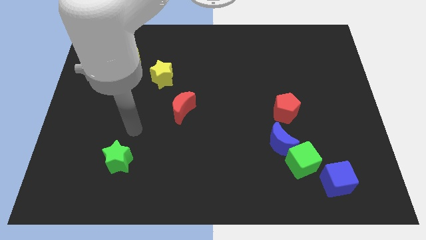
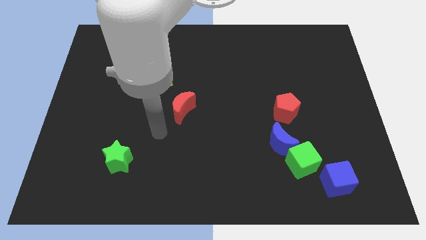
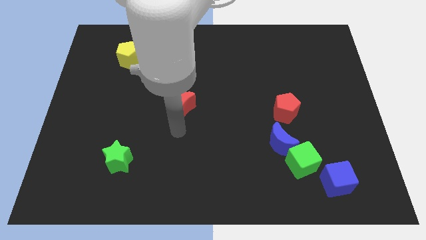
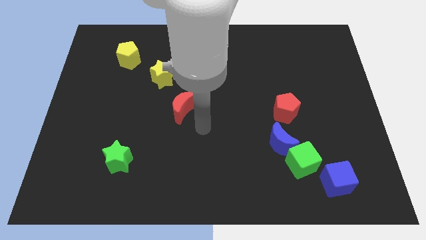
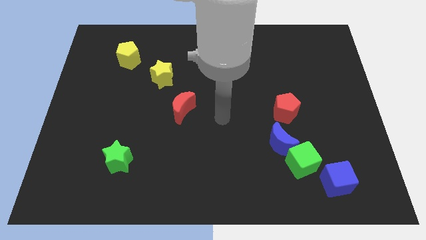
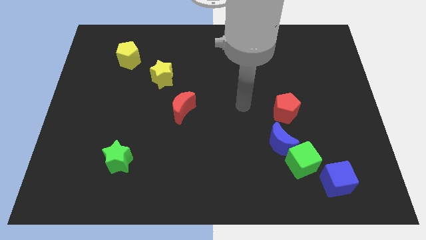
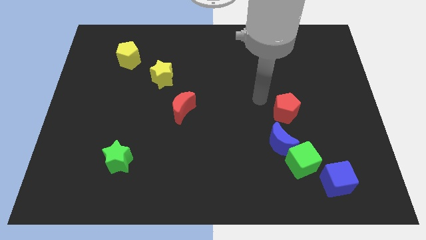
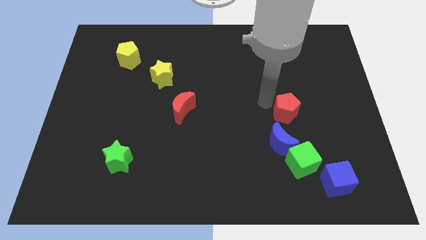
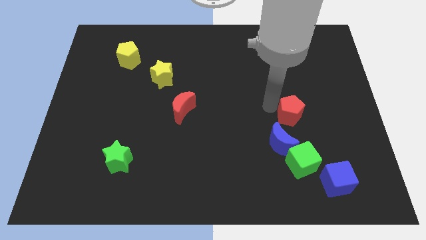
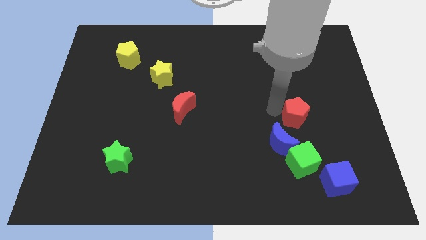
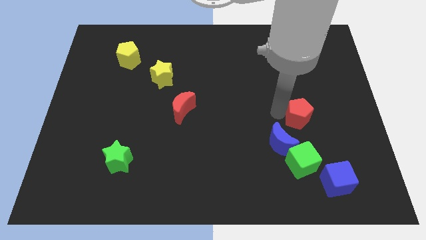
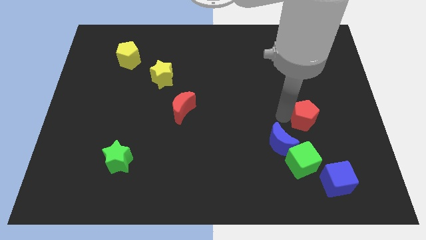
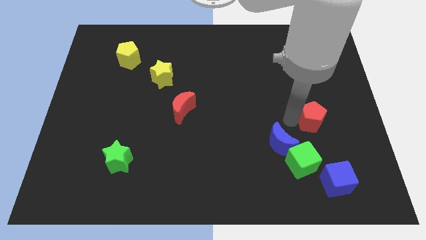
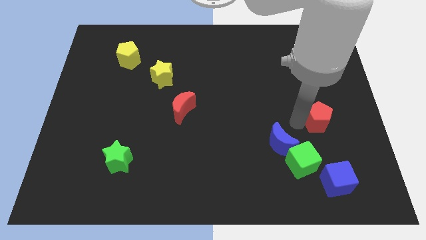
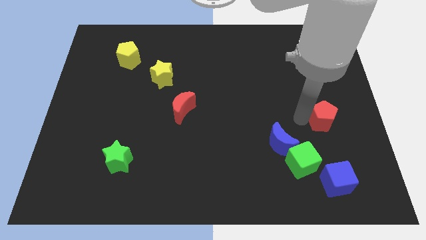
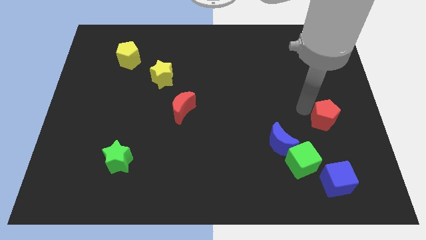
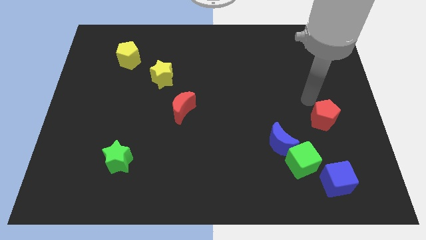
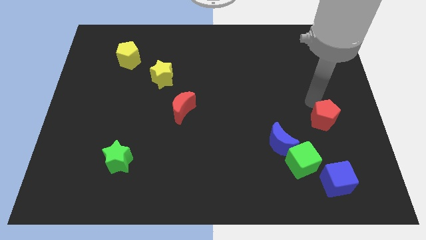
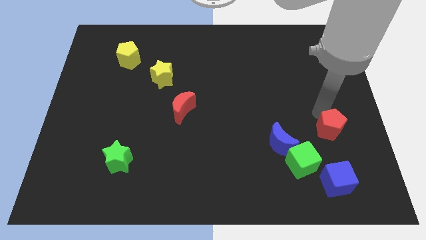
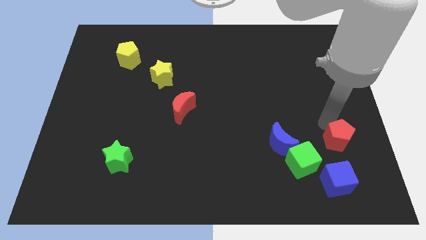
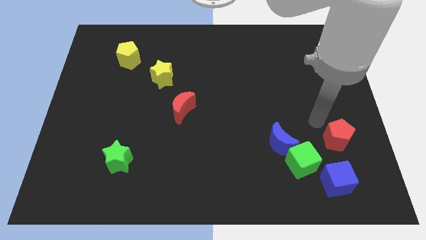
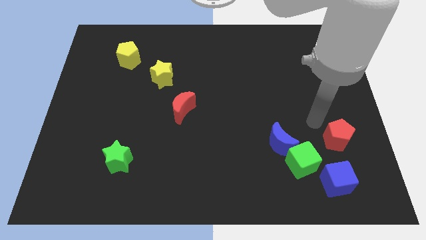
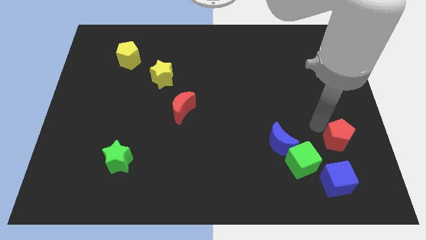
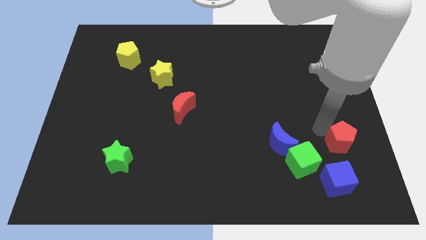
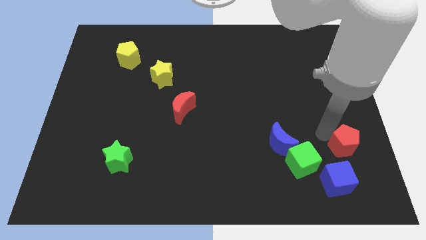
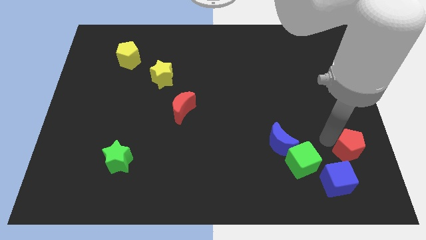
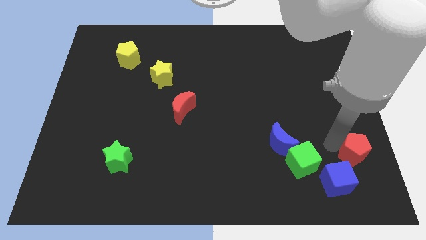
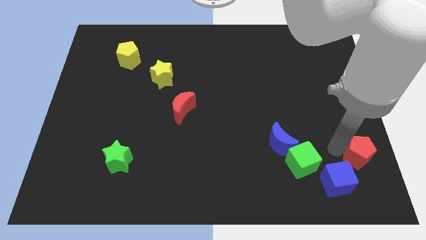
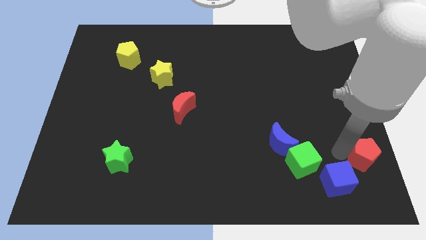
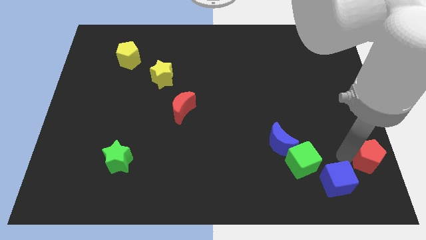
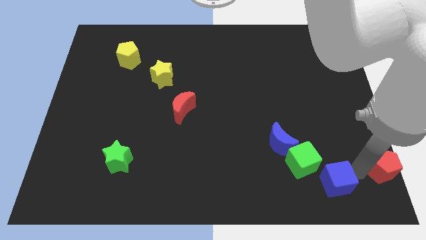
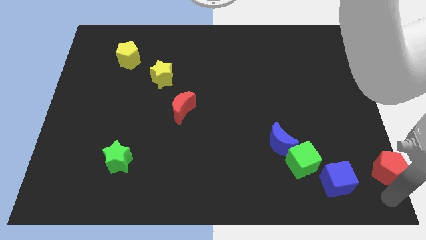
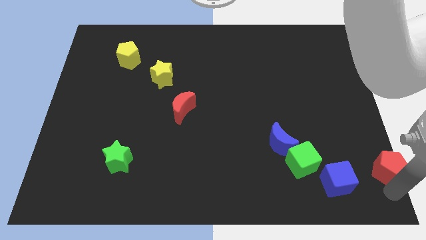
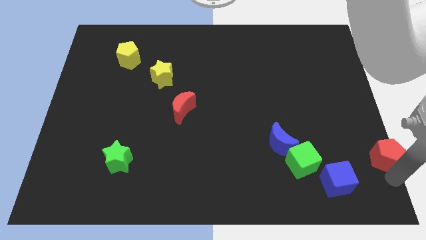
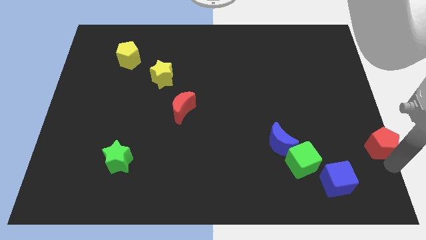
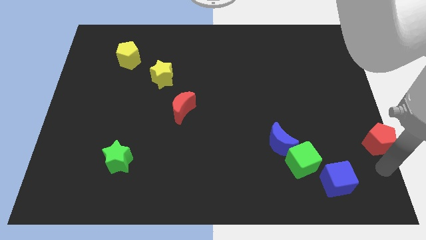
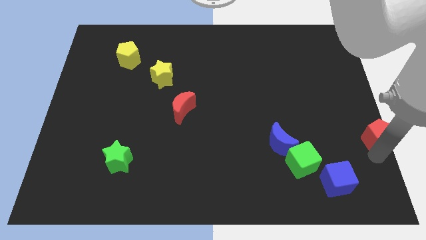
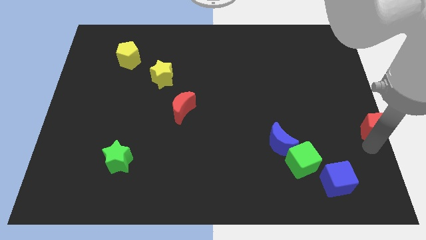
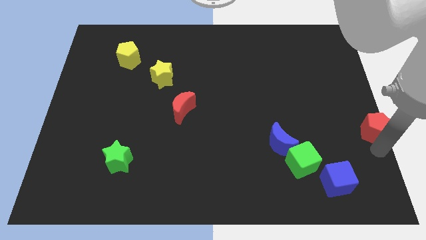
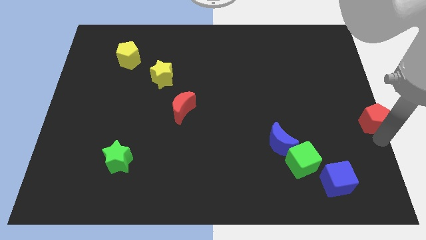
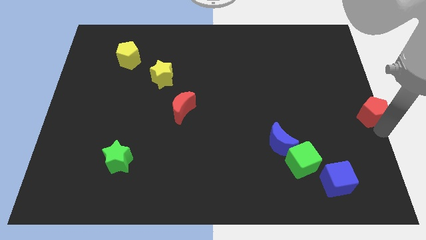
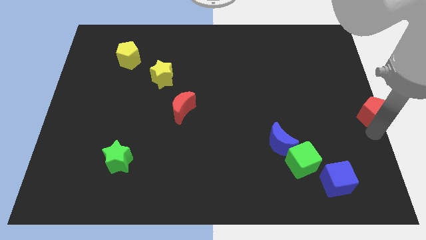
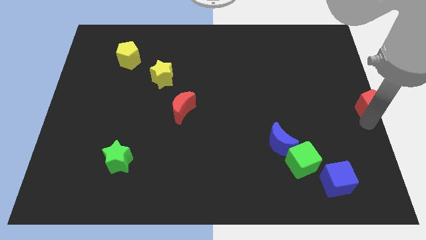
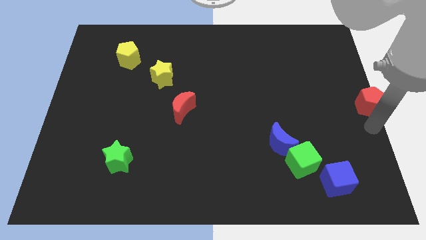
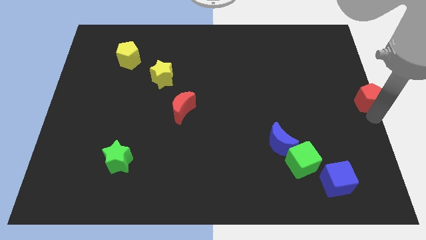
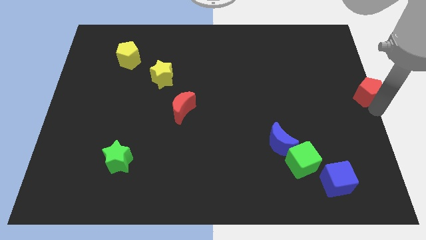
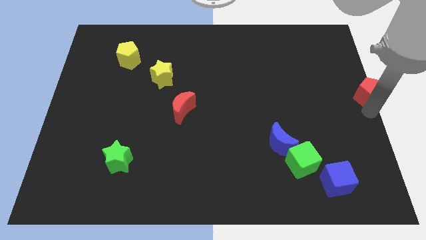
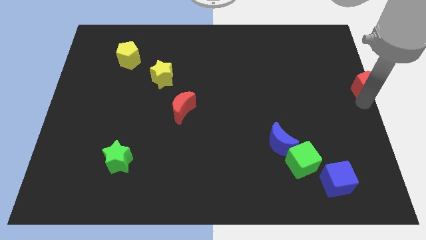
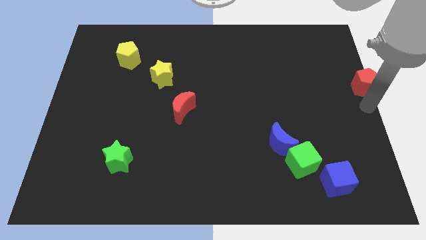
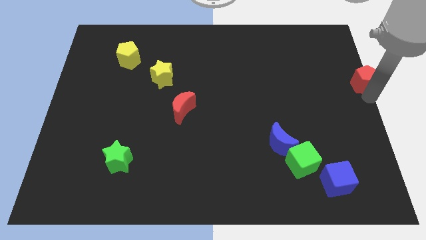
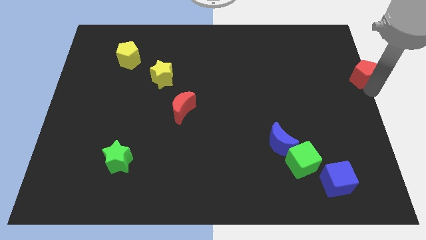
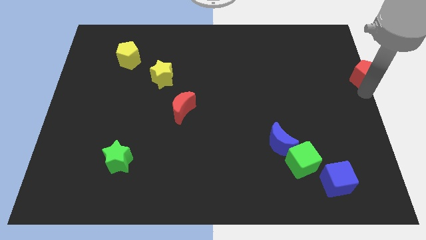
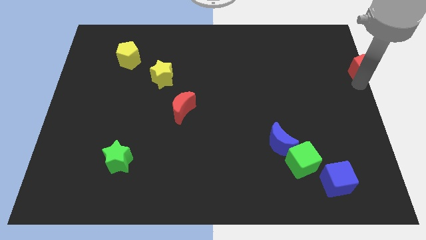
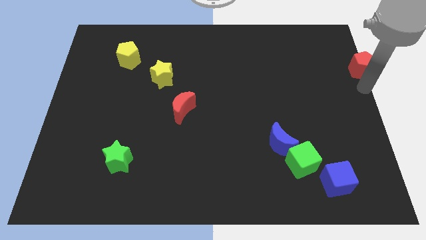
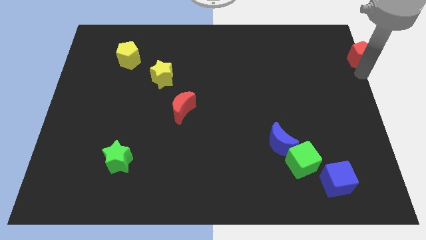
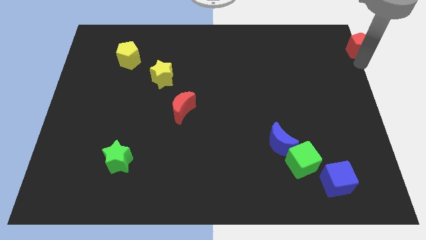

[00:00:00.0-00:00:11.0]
move the red pentagon to the top right
